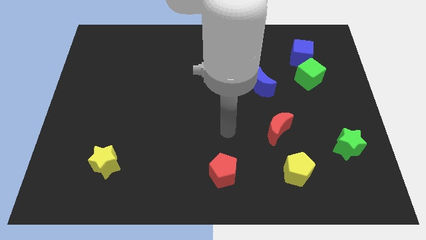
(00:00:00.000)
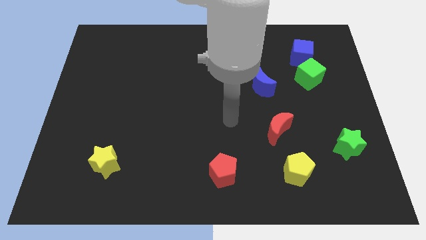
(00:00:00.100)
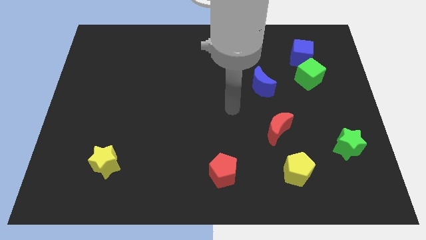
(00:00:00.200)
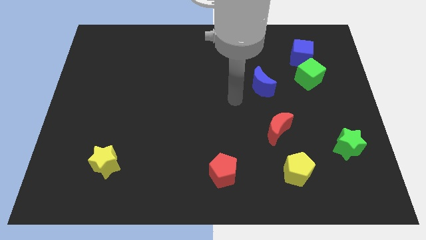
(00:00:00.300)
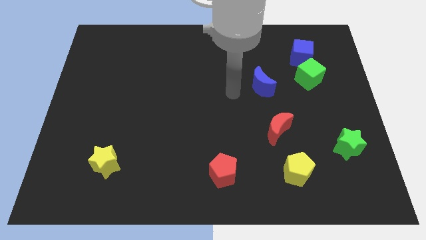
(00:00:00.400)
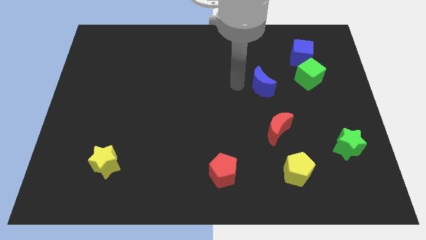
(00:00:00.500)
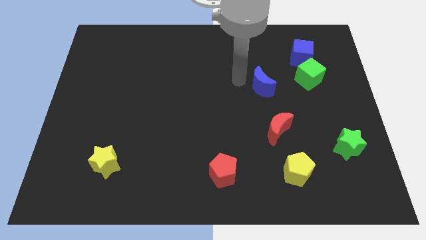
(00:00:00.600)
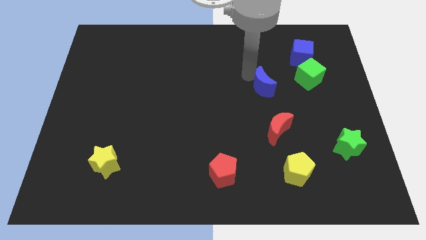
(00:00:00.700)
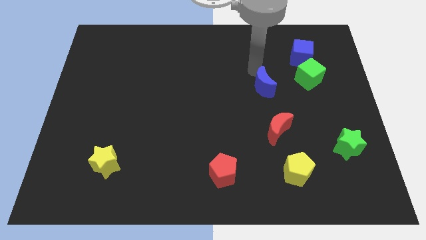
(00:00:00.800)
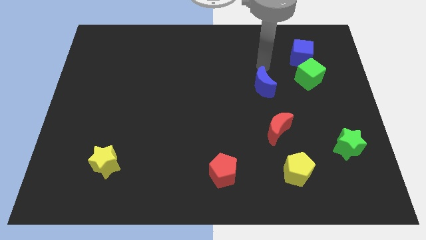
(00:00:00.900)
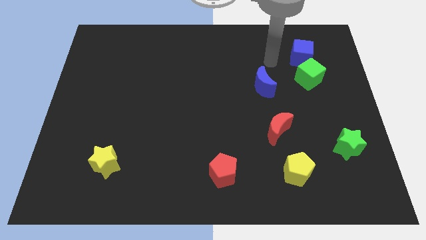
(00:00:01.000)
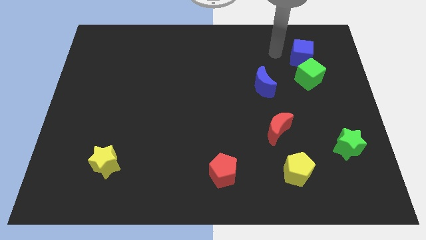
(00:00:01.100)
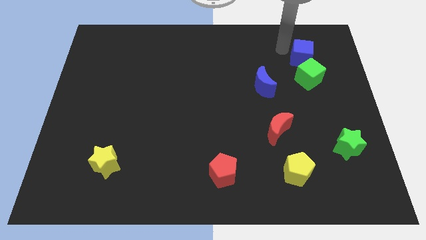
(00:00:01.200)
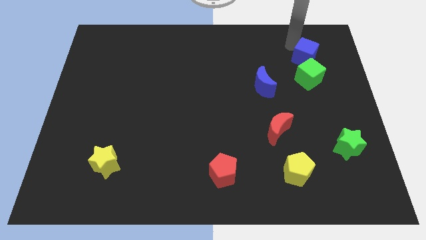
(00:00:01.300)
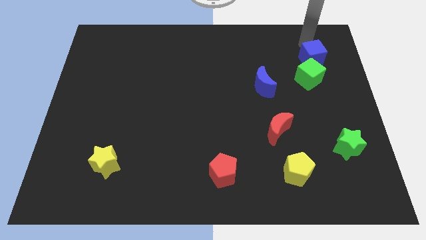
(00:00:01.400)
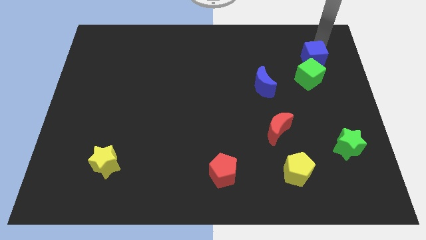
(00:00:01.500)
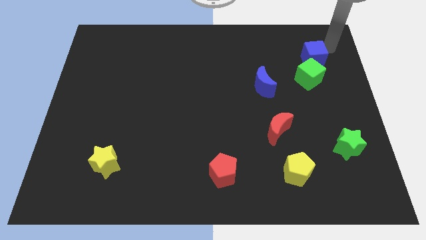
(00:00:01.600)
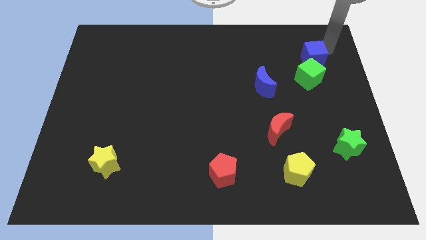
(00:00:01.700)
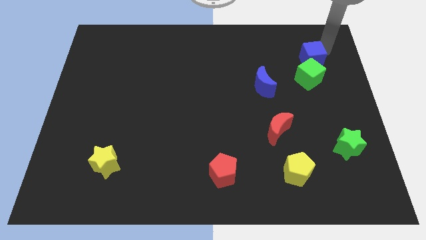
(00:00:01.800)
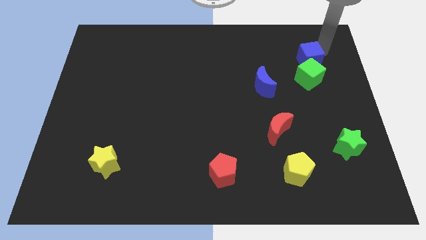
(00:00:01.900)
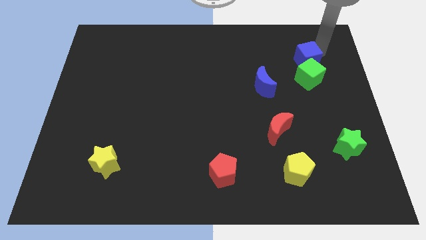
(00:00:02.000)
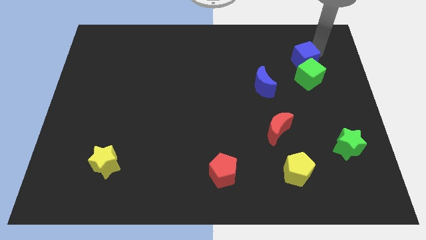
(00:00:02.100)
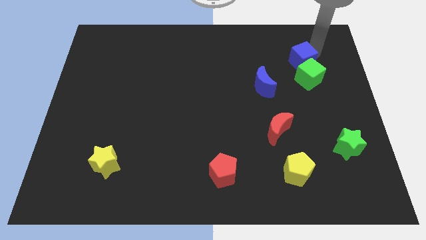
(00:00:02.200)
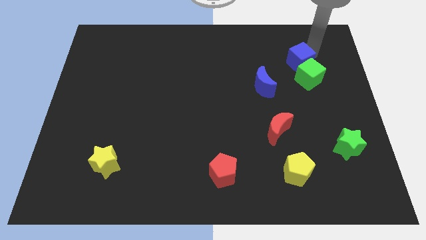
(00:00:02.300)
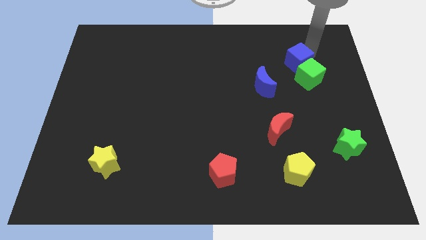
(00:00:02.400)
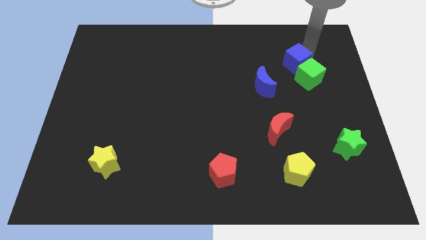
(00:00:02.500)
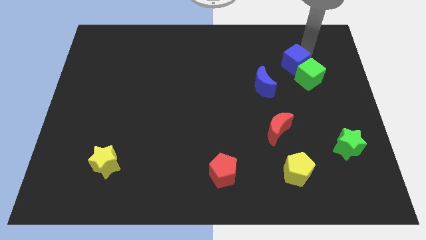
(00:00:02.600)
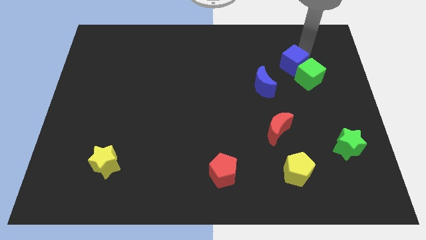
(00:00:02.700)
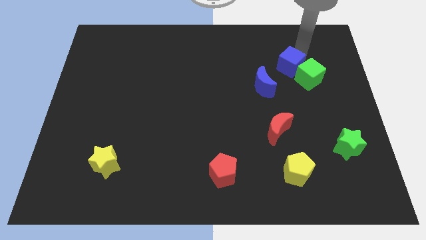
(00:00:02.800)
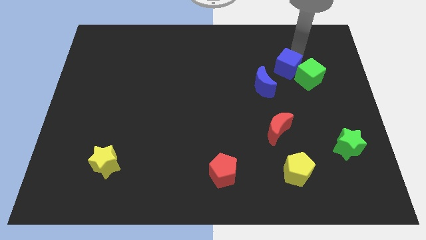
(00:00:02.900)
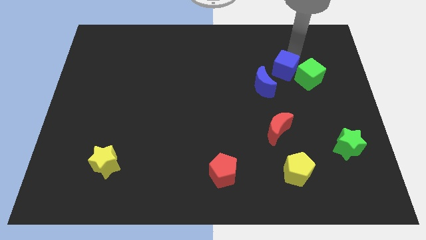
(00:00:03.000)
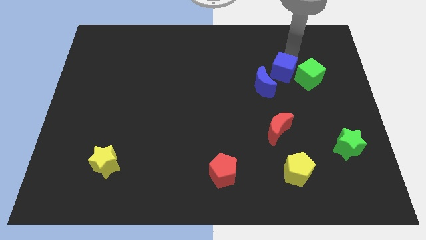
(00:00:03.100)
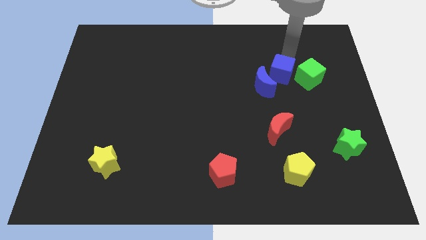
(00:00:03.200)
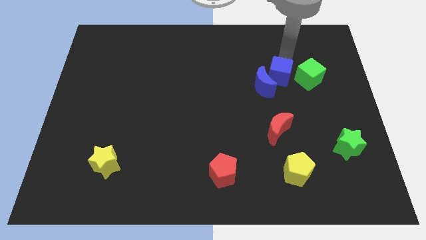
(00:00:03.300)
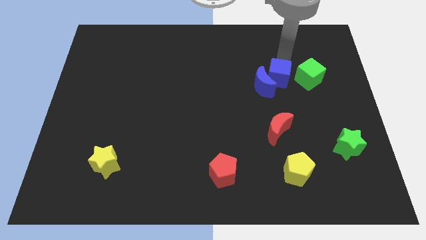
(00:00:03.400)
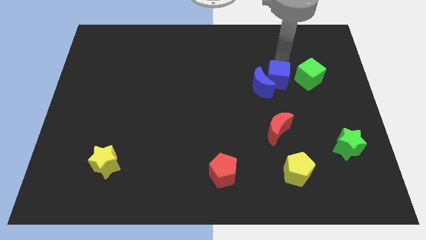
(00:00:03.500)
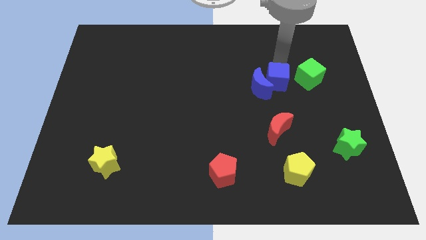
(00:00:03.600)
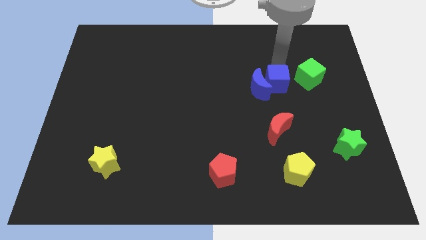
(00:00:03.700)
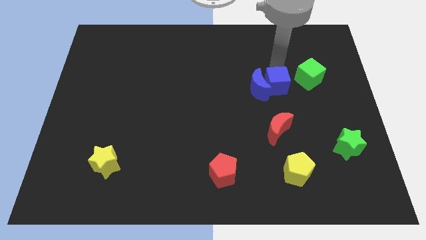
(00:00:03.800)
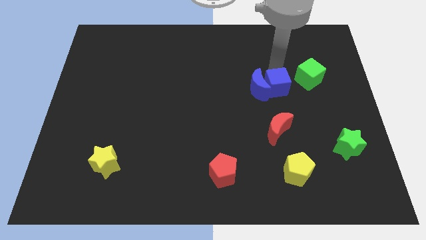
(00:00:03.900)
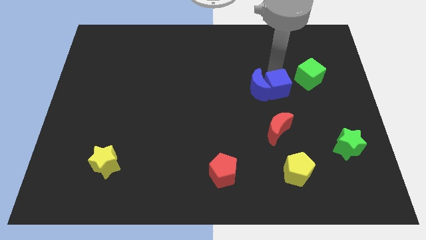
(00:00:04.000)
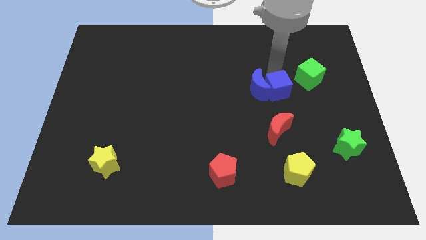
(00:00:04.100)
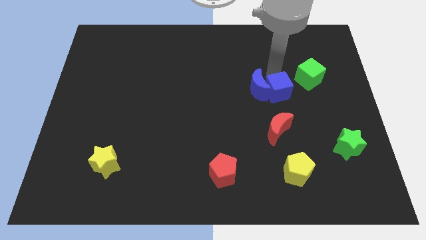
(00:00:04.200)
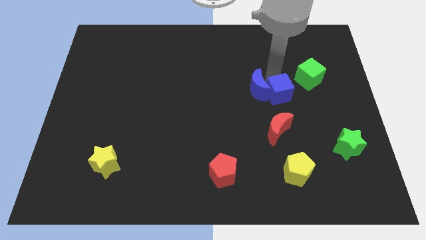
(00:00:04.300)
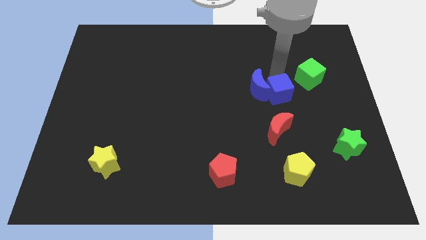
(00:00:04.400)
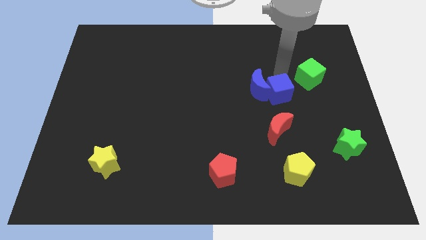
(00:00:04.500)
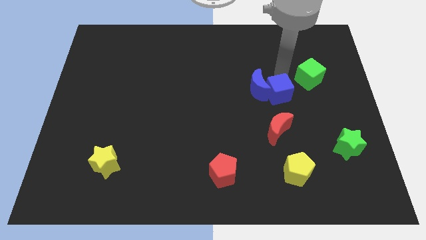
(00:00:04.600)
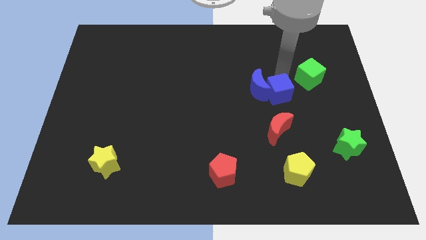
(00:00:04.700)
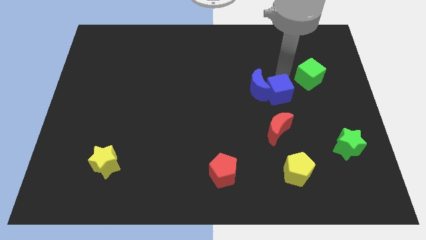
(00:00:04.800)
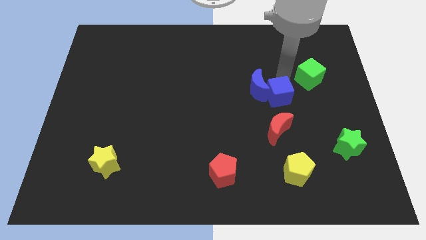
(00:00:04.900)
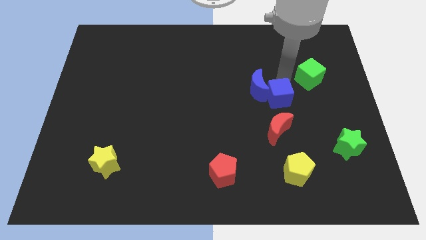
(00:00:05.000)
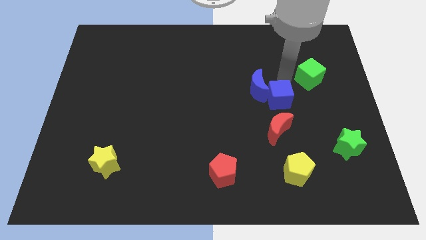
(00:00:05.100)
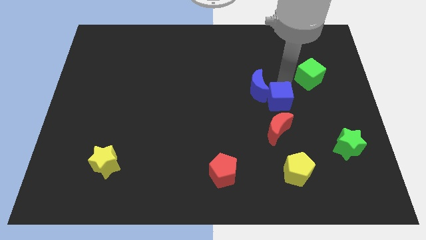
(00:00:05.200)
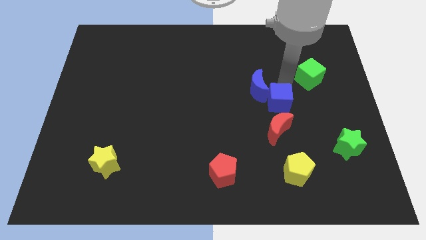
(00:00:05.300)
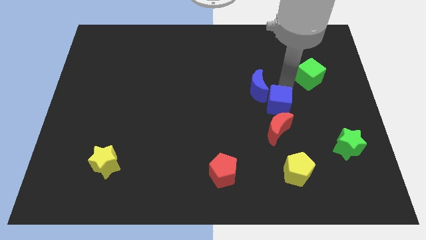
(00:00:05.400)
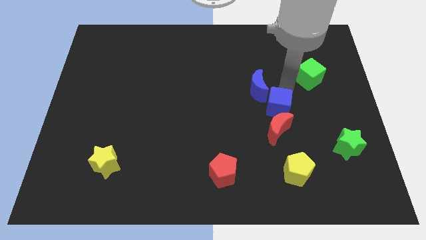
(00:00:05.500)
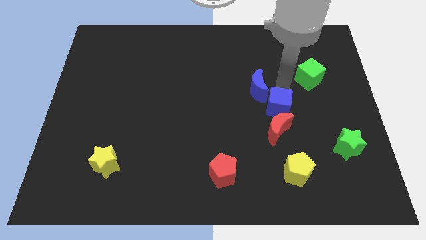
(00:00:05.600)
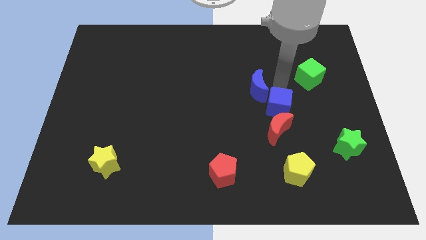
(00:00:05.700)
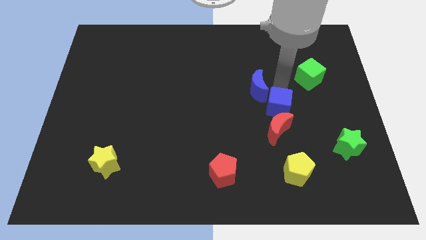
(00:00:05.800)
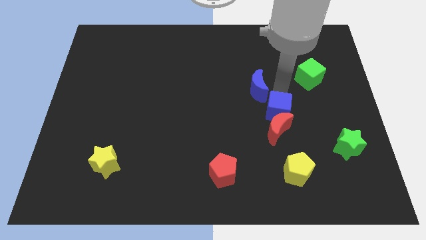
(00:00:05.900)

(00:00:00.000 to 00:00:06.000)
push the blue cube close to the red moon
